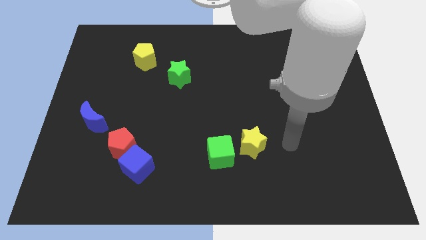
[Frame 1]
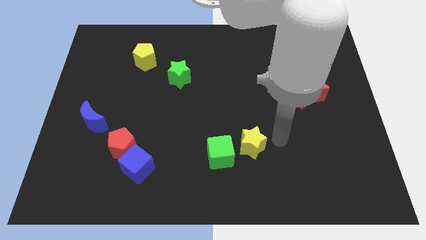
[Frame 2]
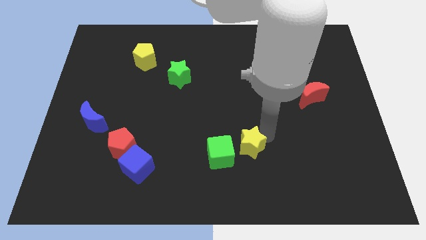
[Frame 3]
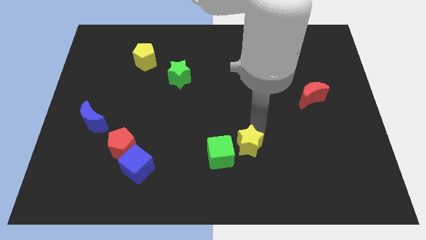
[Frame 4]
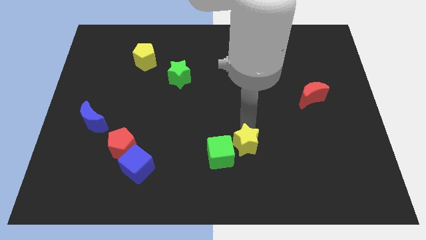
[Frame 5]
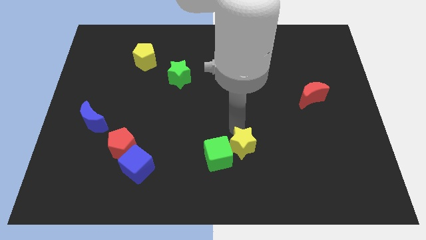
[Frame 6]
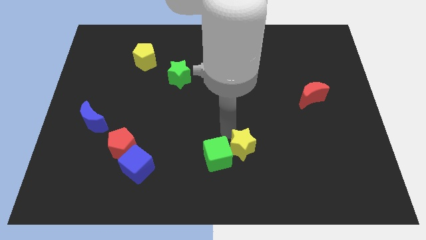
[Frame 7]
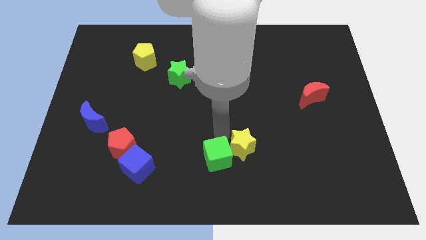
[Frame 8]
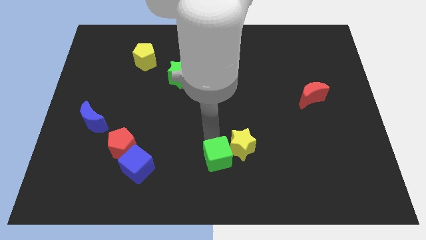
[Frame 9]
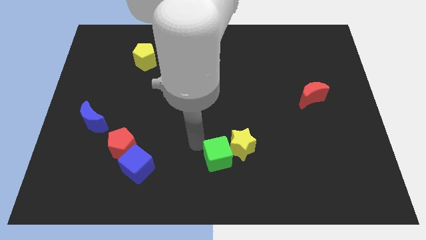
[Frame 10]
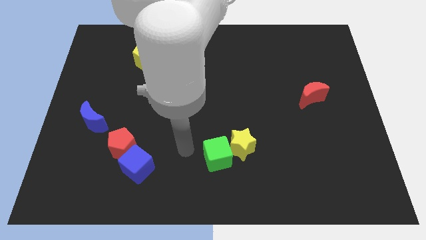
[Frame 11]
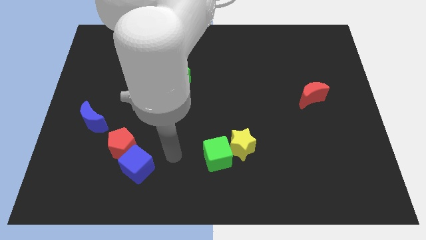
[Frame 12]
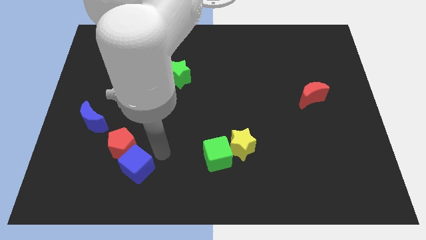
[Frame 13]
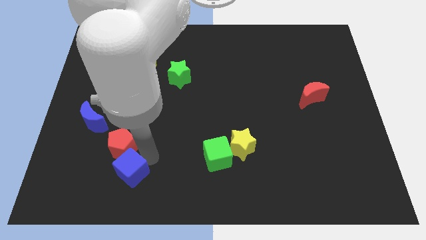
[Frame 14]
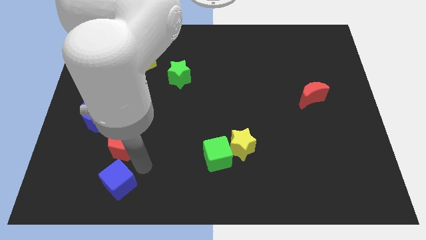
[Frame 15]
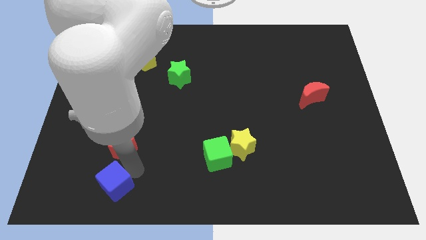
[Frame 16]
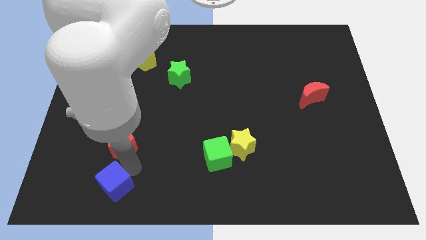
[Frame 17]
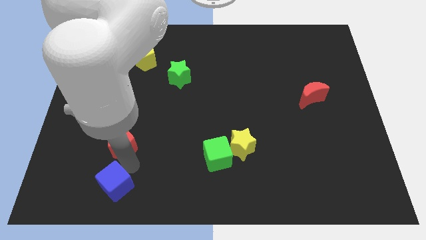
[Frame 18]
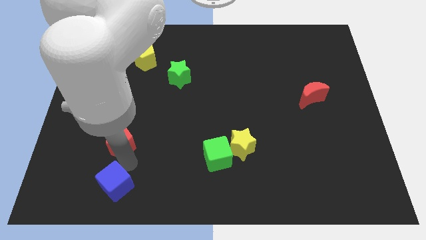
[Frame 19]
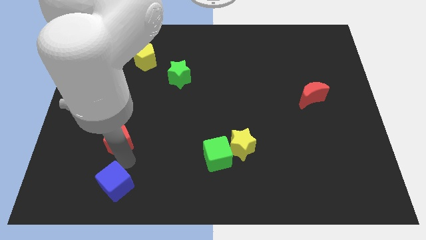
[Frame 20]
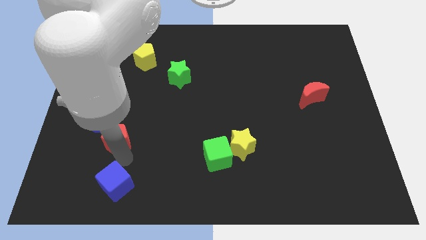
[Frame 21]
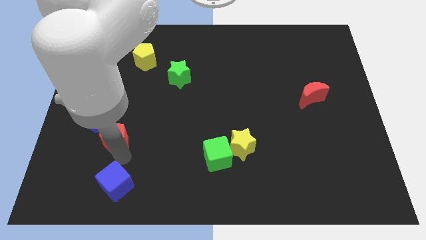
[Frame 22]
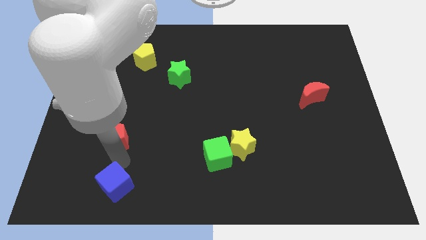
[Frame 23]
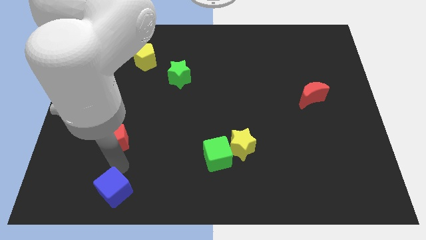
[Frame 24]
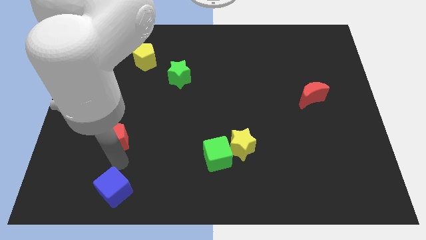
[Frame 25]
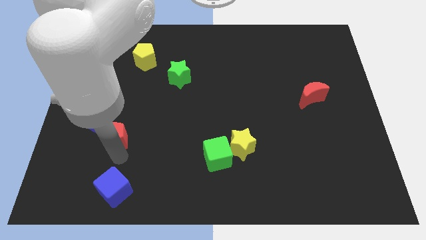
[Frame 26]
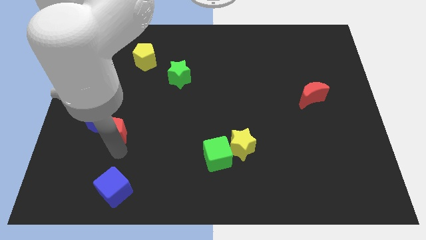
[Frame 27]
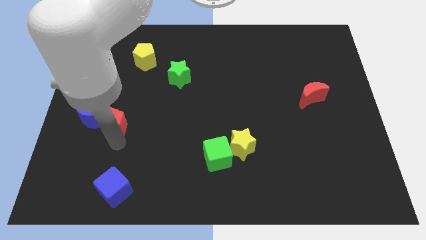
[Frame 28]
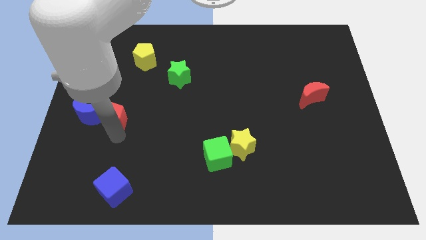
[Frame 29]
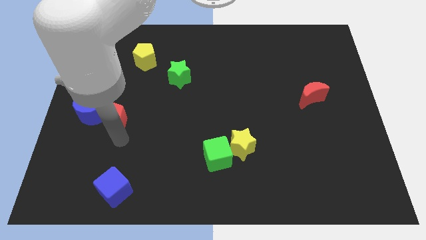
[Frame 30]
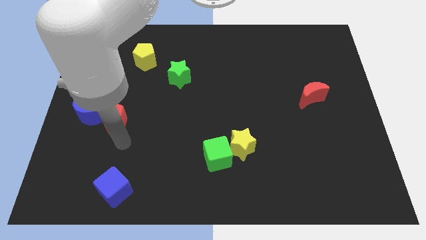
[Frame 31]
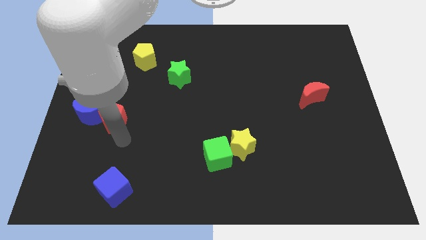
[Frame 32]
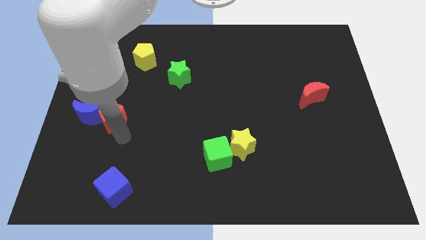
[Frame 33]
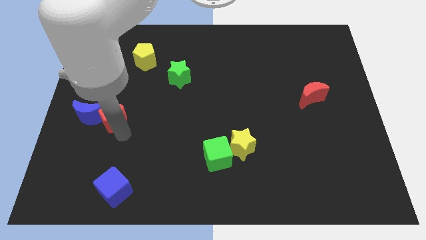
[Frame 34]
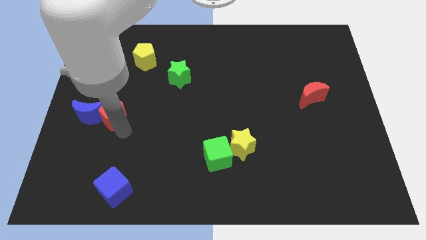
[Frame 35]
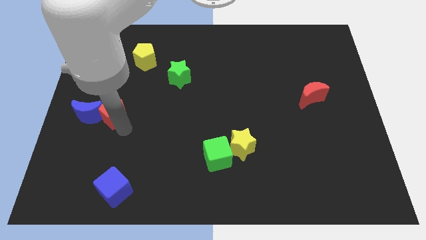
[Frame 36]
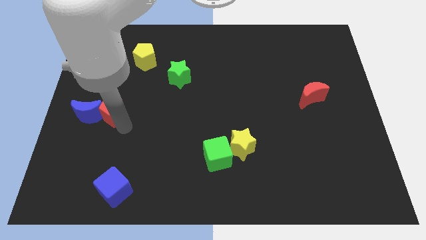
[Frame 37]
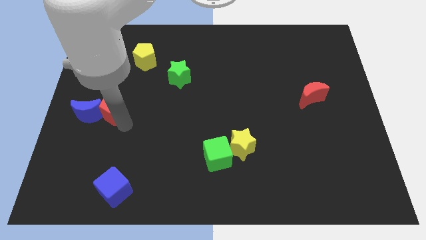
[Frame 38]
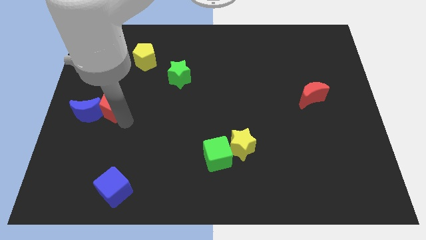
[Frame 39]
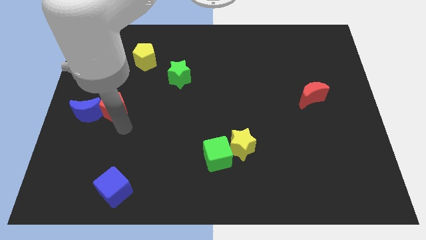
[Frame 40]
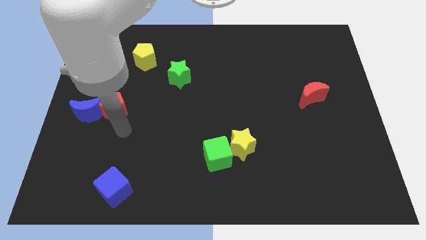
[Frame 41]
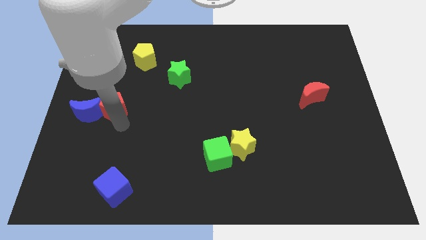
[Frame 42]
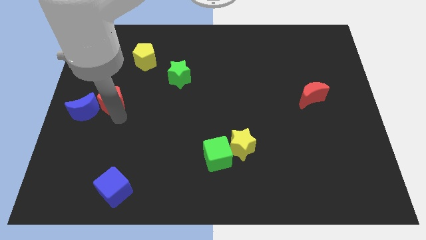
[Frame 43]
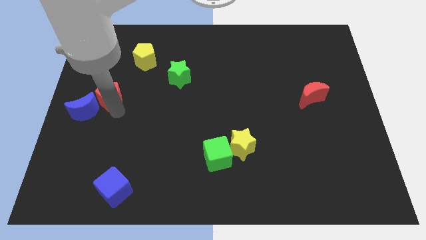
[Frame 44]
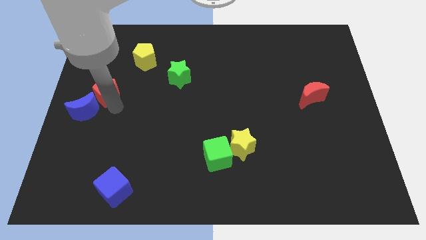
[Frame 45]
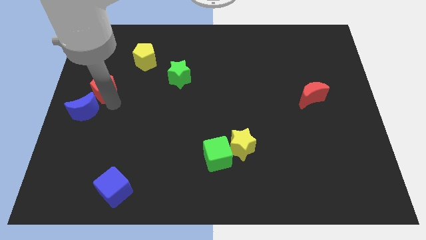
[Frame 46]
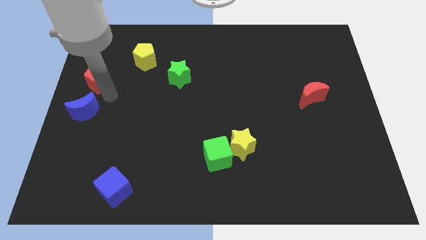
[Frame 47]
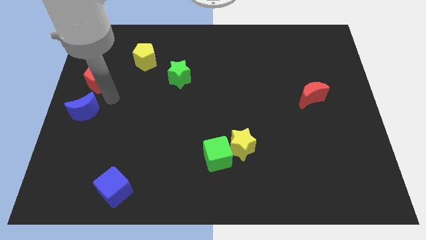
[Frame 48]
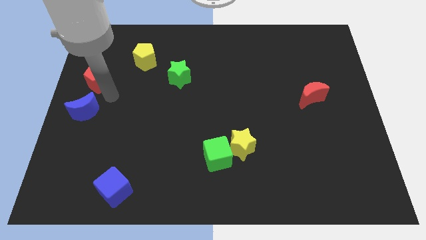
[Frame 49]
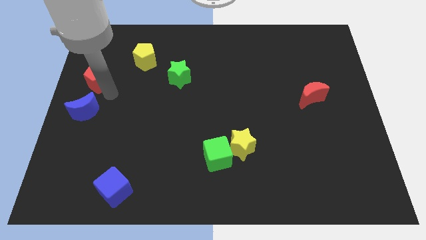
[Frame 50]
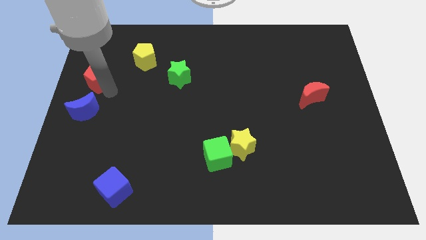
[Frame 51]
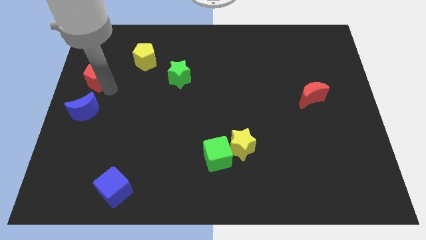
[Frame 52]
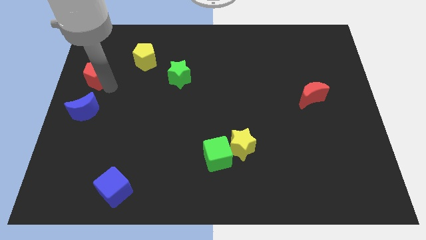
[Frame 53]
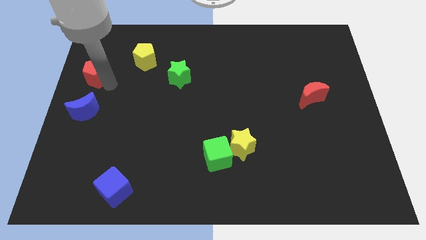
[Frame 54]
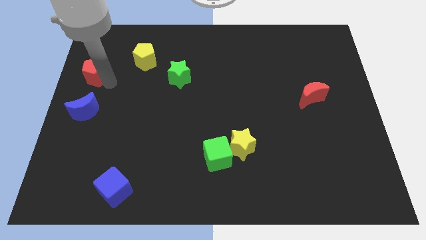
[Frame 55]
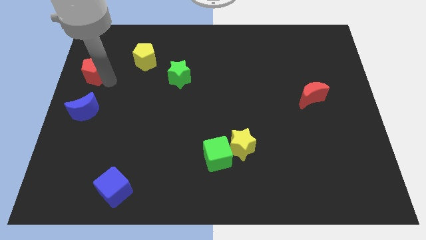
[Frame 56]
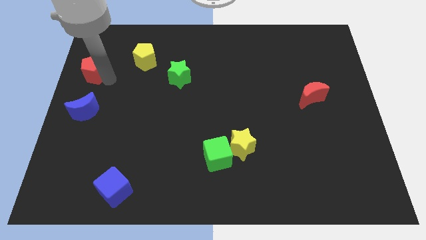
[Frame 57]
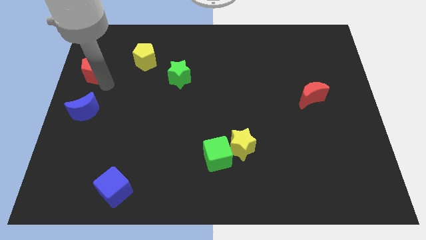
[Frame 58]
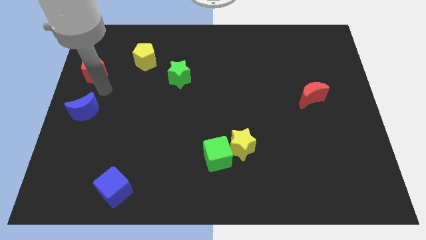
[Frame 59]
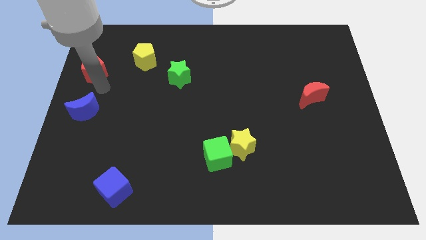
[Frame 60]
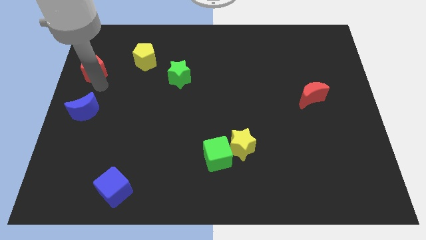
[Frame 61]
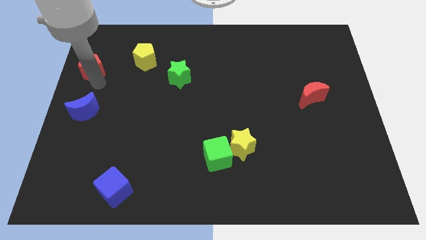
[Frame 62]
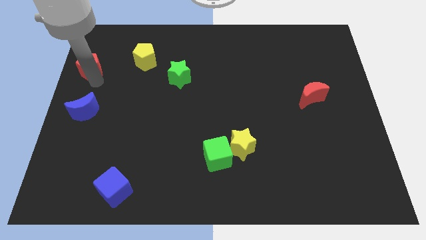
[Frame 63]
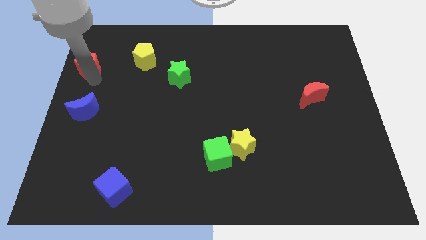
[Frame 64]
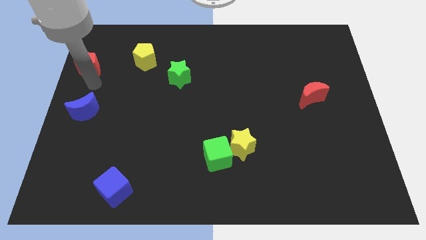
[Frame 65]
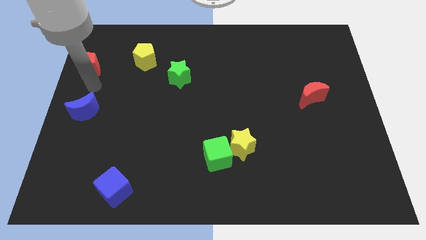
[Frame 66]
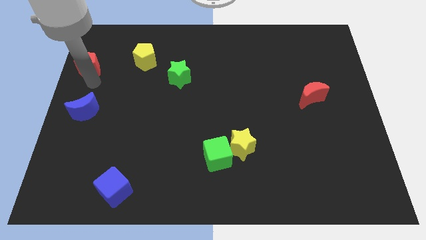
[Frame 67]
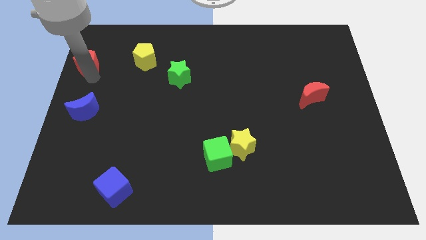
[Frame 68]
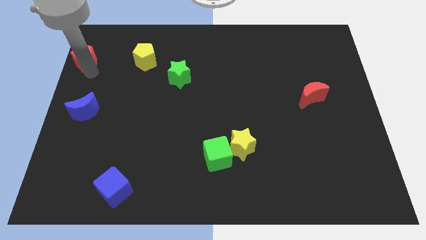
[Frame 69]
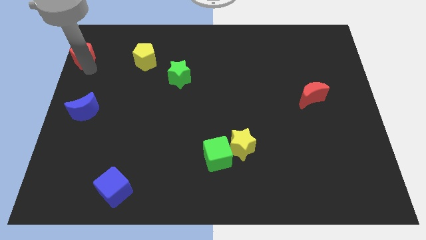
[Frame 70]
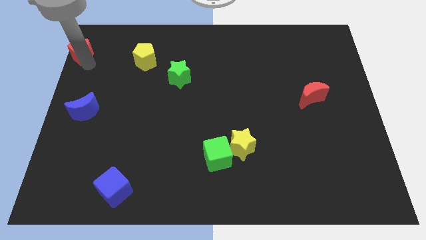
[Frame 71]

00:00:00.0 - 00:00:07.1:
move the red pentagon to the upper left corner
